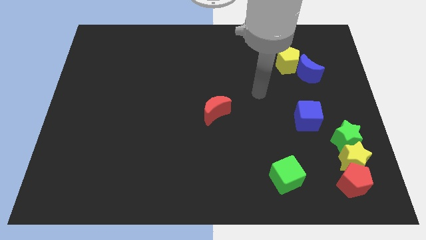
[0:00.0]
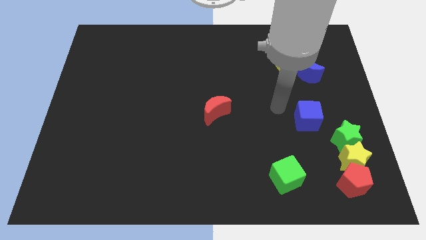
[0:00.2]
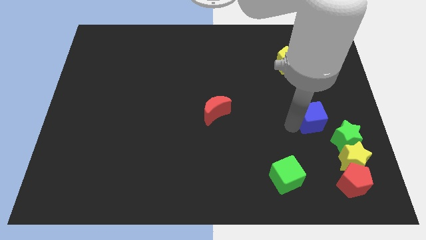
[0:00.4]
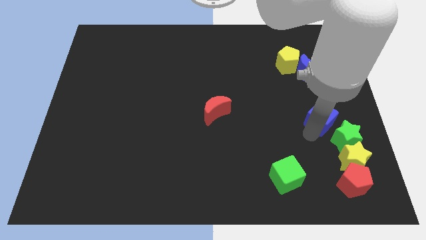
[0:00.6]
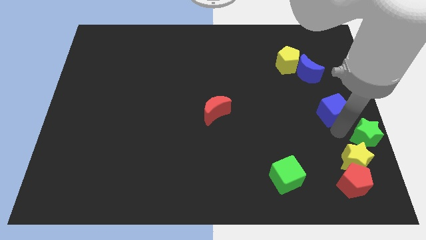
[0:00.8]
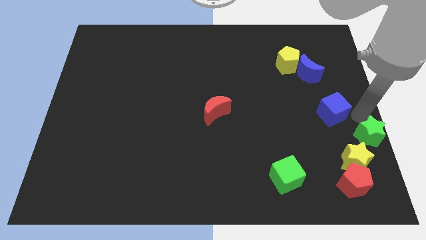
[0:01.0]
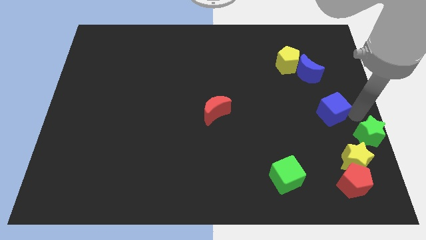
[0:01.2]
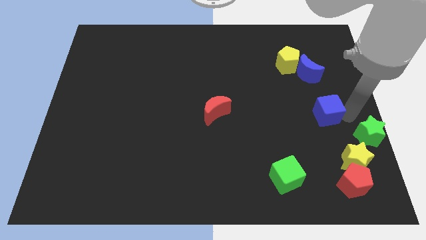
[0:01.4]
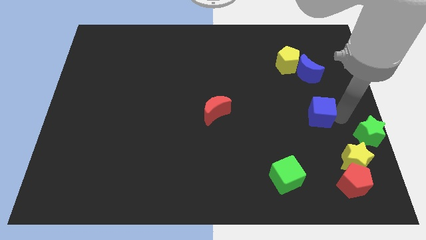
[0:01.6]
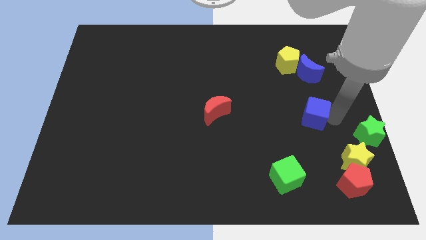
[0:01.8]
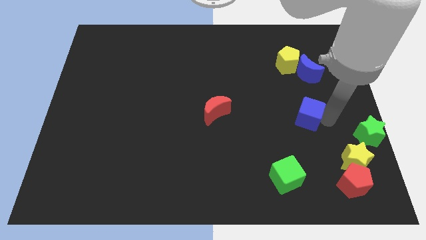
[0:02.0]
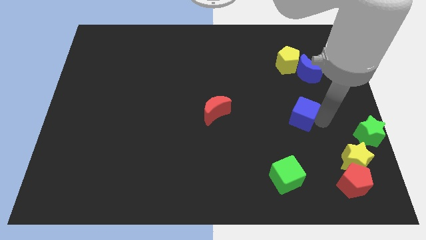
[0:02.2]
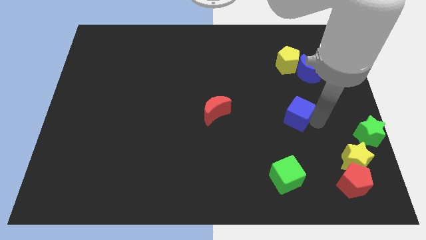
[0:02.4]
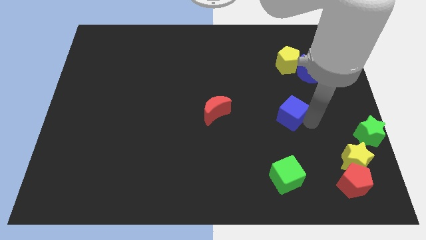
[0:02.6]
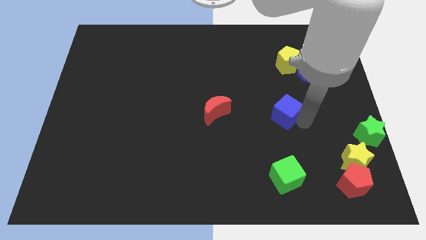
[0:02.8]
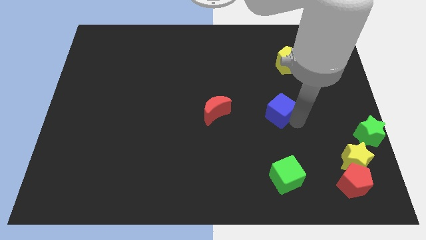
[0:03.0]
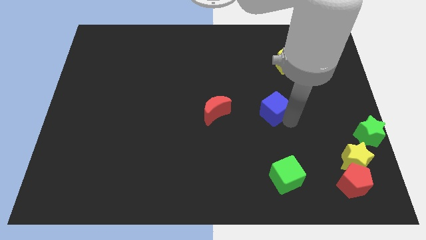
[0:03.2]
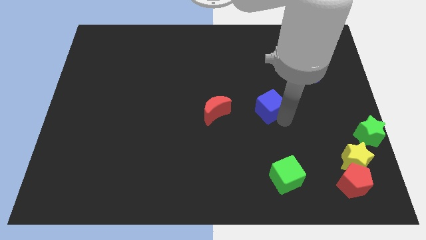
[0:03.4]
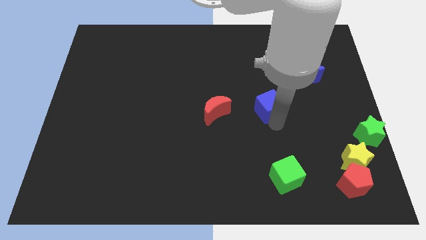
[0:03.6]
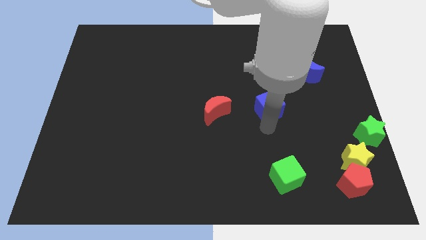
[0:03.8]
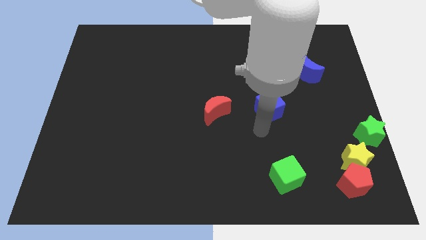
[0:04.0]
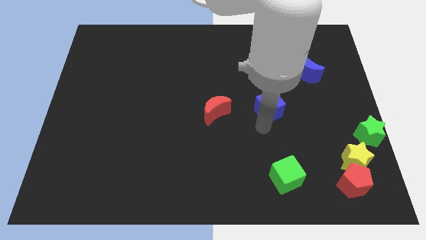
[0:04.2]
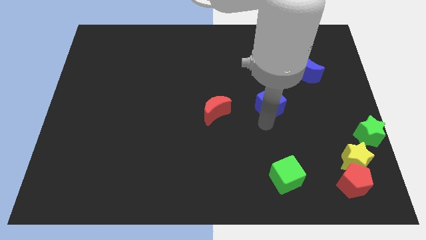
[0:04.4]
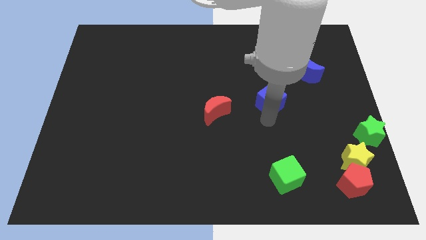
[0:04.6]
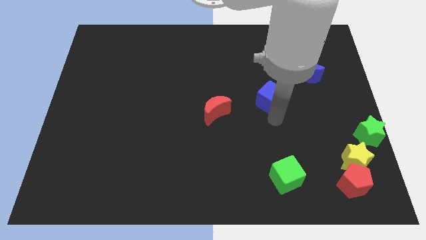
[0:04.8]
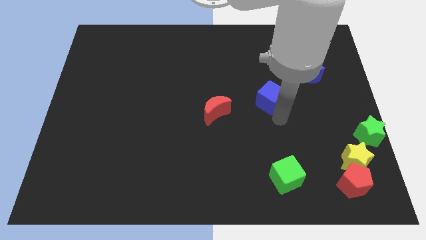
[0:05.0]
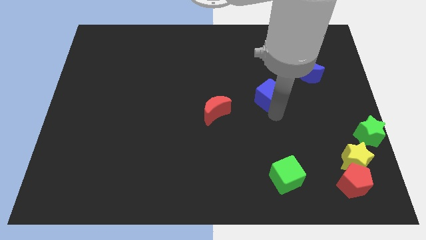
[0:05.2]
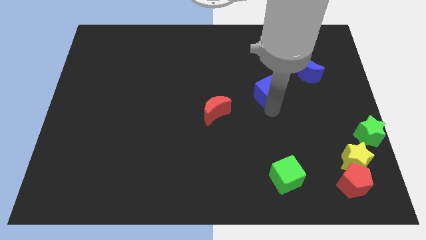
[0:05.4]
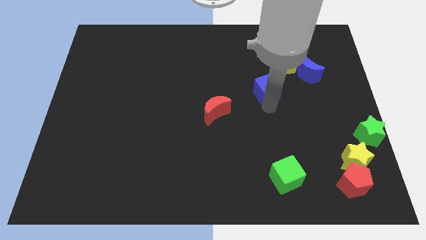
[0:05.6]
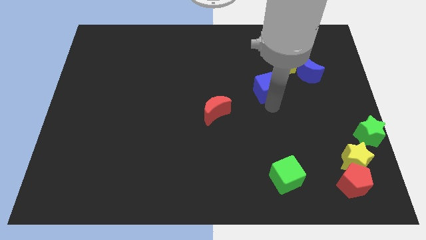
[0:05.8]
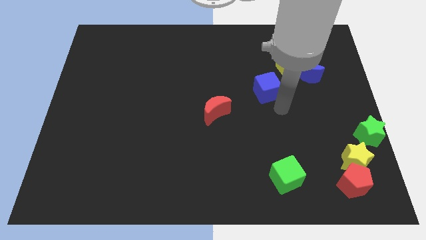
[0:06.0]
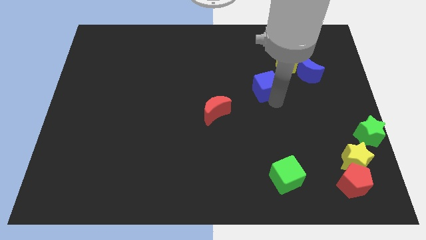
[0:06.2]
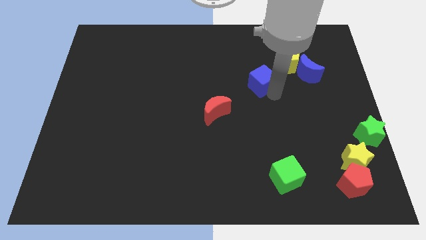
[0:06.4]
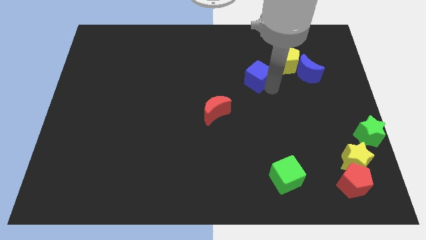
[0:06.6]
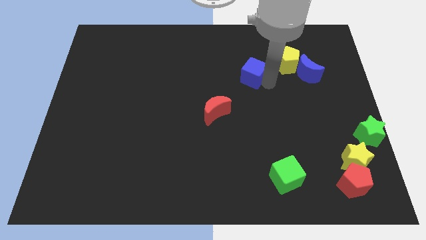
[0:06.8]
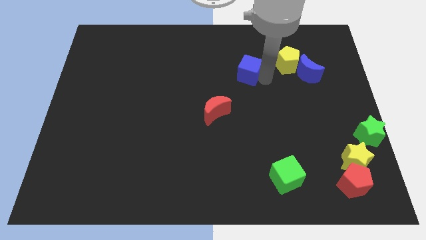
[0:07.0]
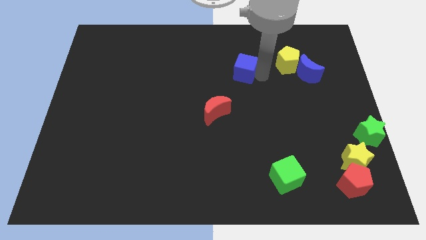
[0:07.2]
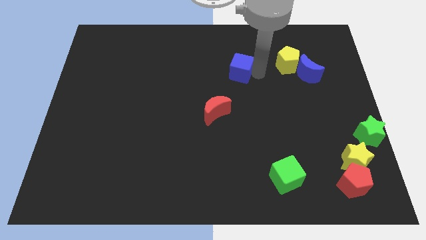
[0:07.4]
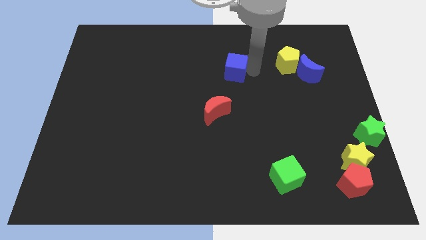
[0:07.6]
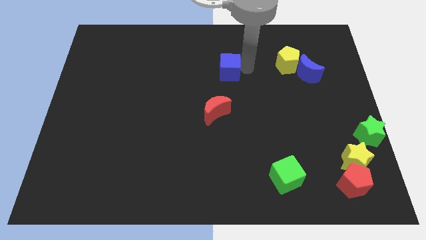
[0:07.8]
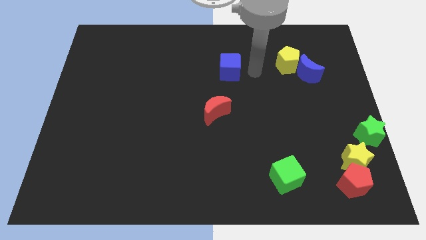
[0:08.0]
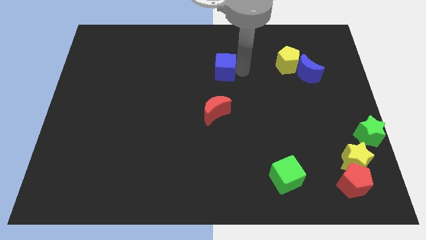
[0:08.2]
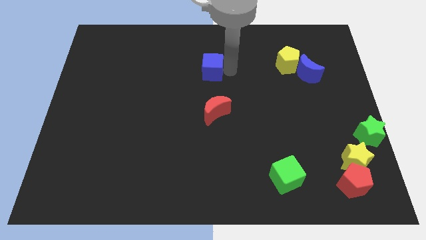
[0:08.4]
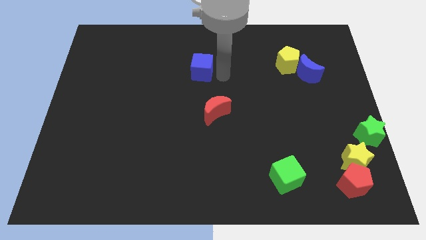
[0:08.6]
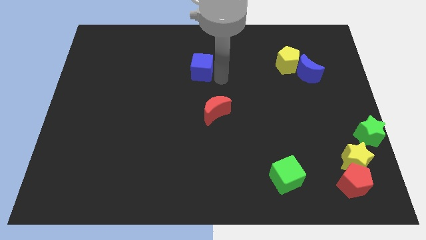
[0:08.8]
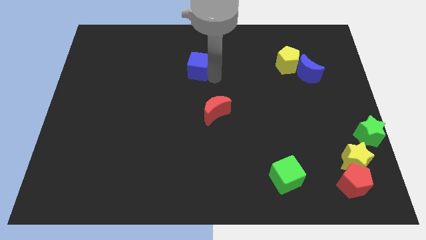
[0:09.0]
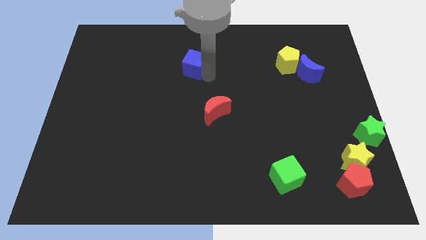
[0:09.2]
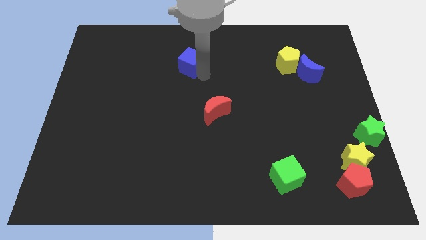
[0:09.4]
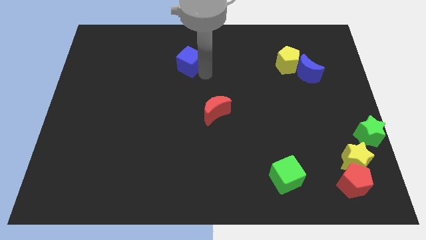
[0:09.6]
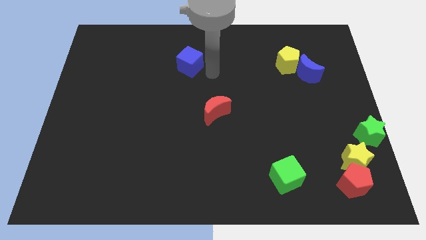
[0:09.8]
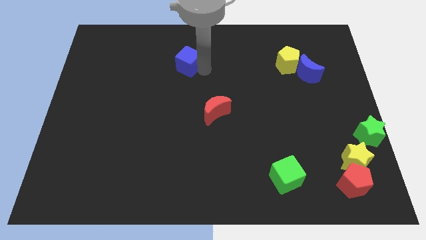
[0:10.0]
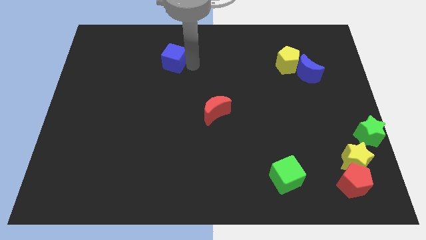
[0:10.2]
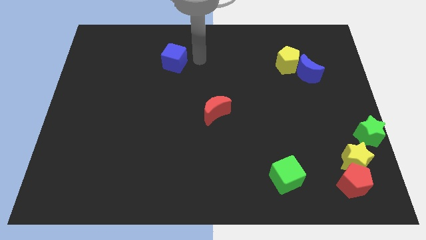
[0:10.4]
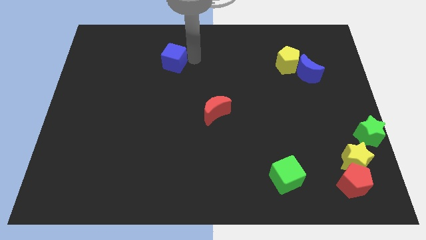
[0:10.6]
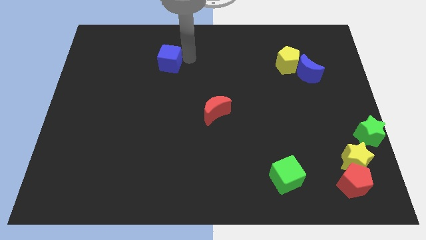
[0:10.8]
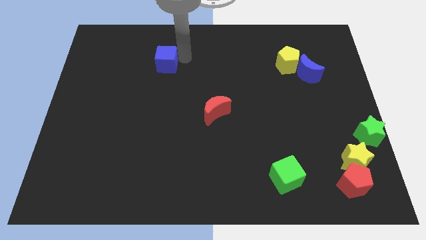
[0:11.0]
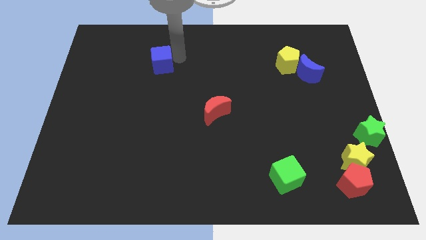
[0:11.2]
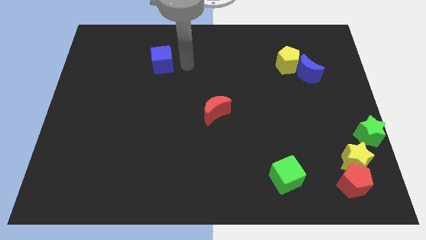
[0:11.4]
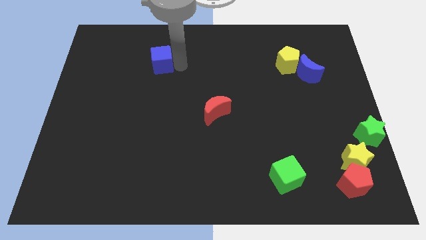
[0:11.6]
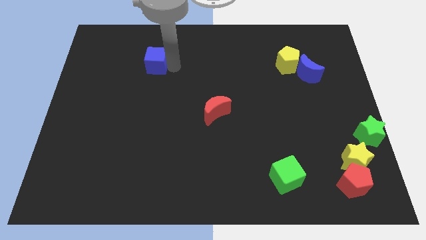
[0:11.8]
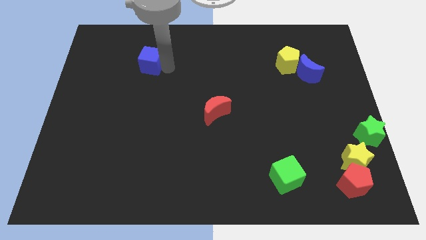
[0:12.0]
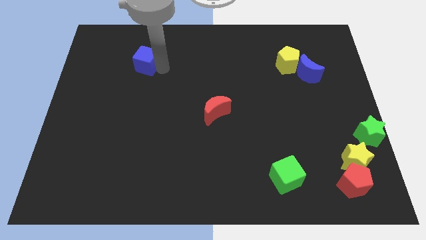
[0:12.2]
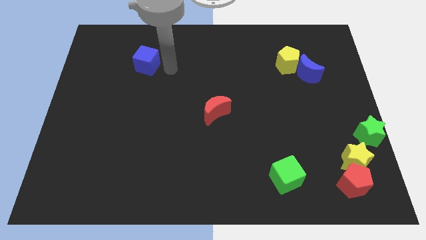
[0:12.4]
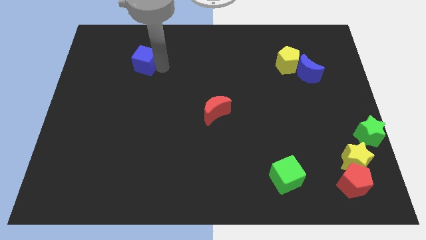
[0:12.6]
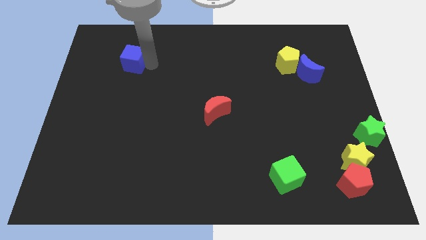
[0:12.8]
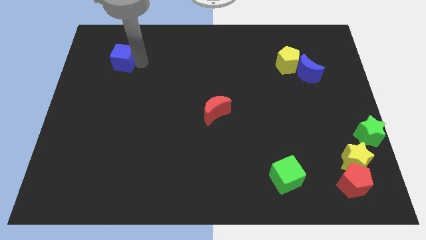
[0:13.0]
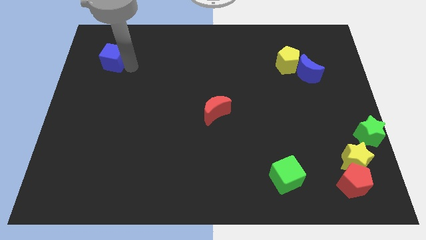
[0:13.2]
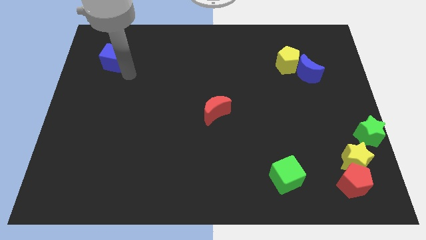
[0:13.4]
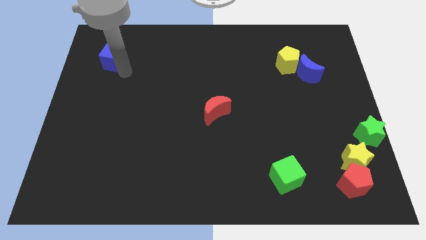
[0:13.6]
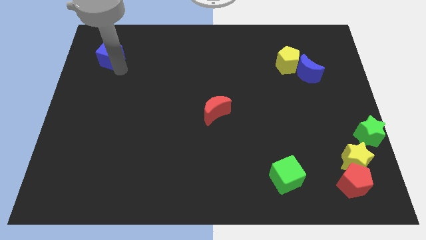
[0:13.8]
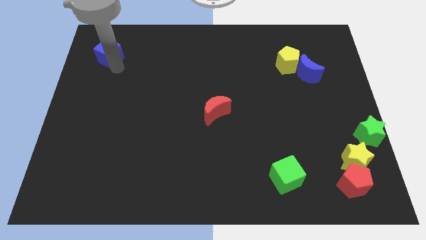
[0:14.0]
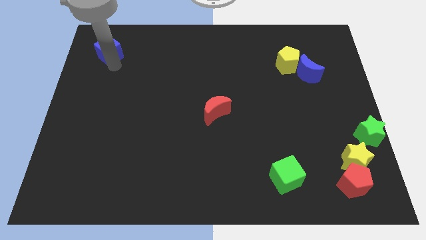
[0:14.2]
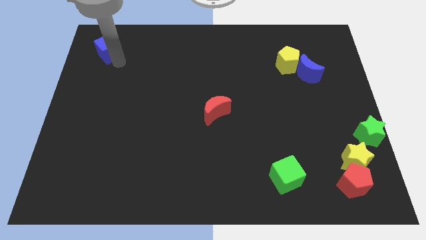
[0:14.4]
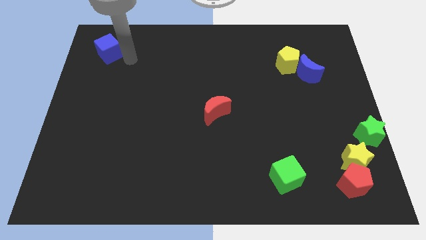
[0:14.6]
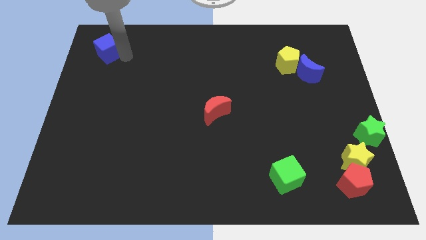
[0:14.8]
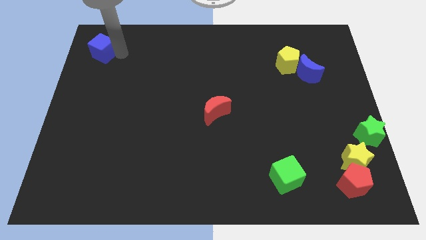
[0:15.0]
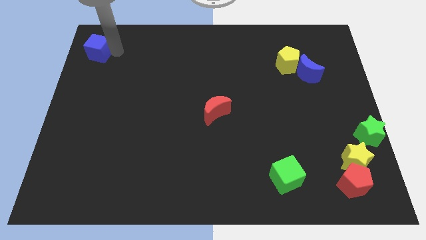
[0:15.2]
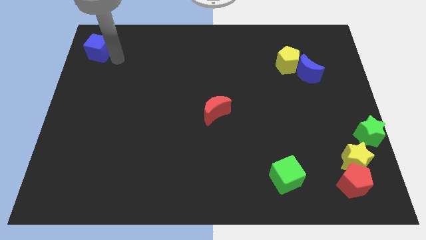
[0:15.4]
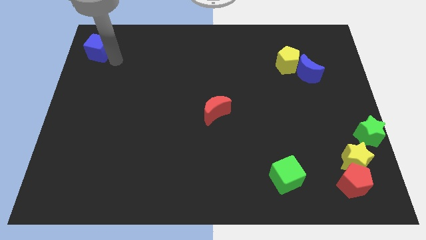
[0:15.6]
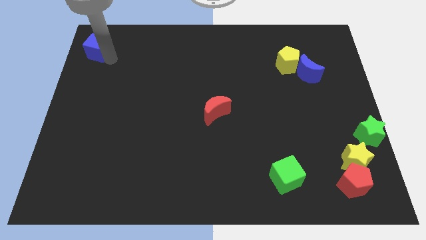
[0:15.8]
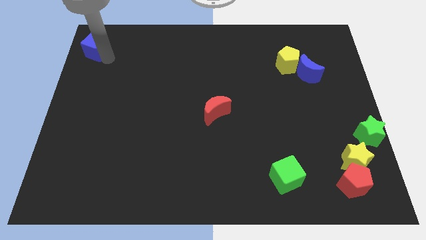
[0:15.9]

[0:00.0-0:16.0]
move the blue cube to the upper left corner
